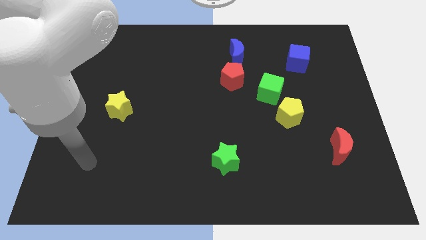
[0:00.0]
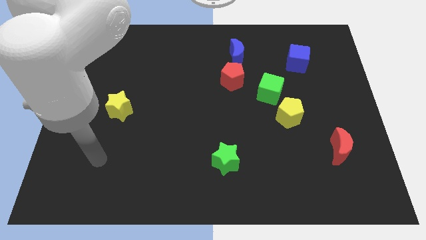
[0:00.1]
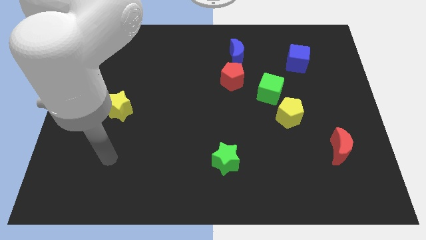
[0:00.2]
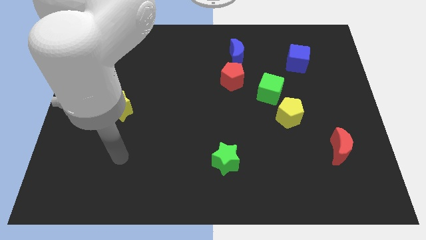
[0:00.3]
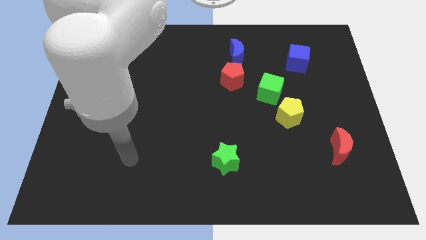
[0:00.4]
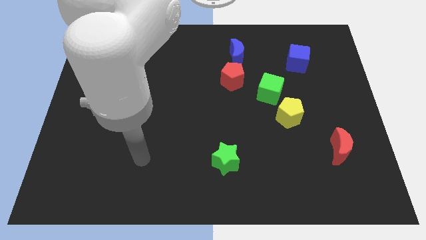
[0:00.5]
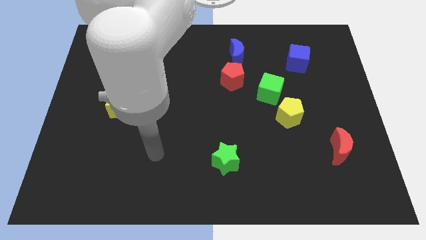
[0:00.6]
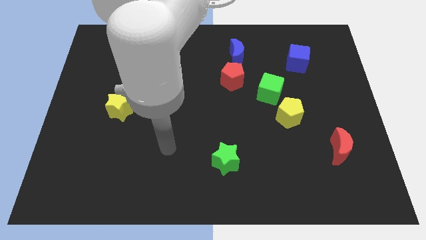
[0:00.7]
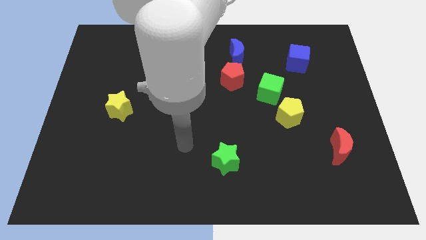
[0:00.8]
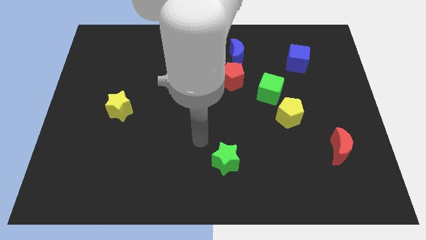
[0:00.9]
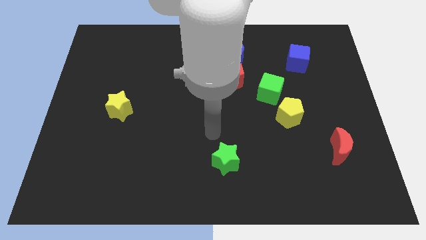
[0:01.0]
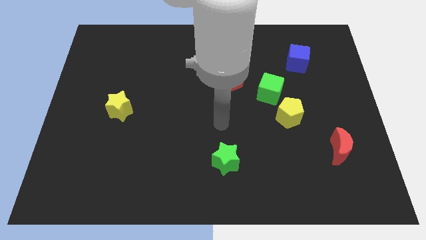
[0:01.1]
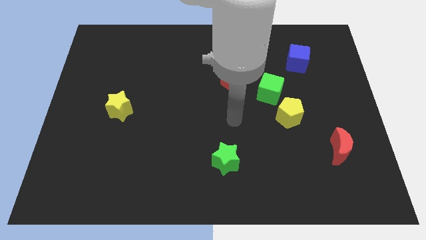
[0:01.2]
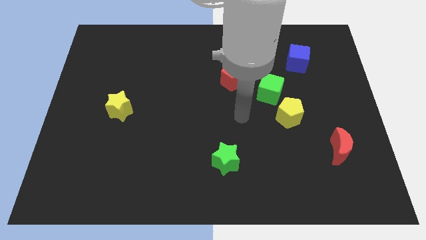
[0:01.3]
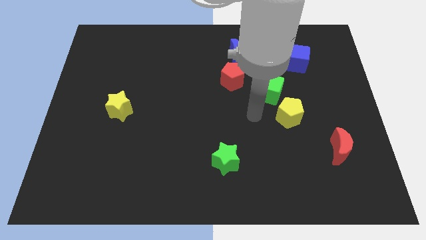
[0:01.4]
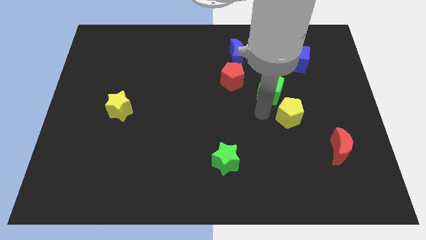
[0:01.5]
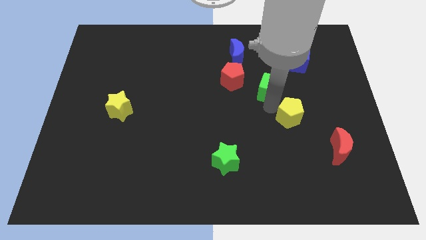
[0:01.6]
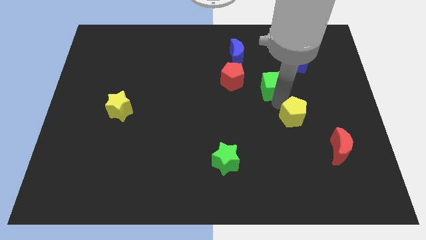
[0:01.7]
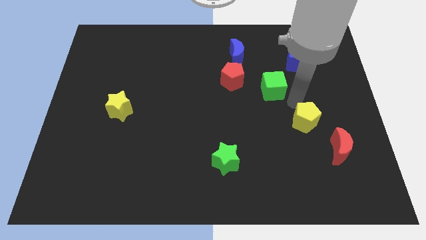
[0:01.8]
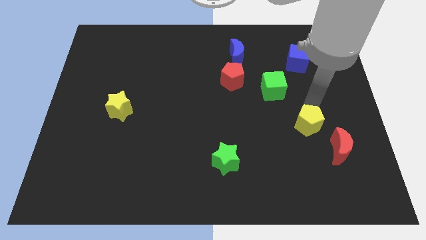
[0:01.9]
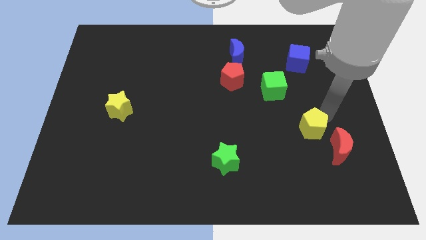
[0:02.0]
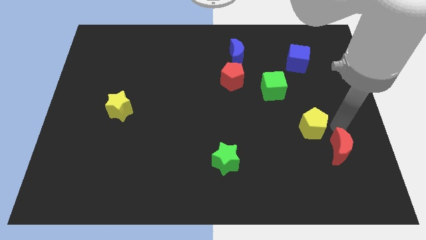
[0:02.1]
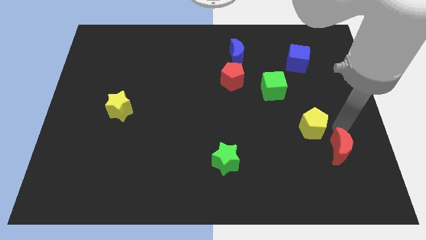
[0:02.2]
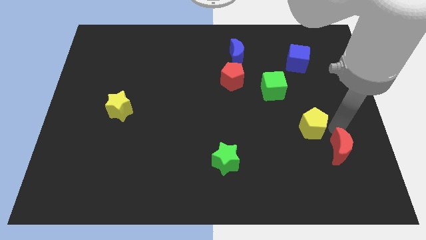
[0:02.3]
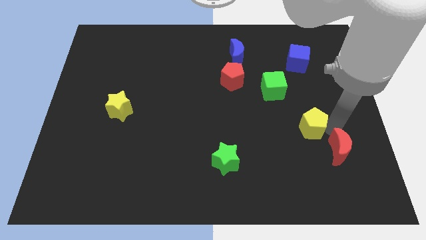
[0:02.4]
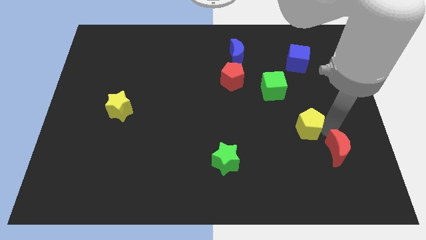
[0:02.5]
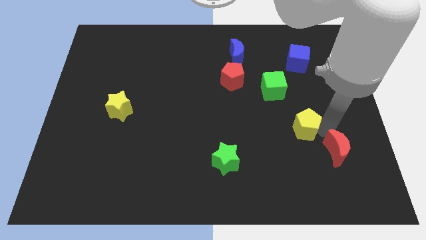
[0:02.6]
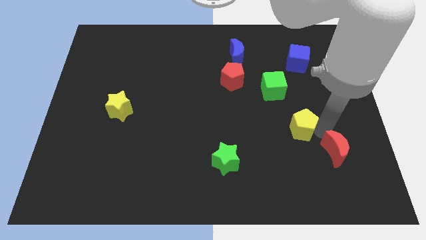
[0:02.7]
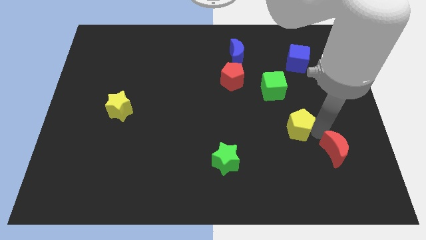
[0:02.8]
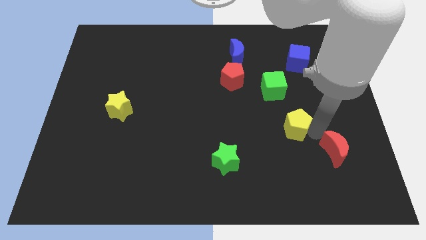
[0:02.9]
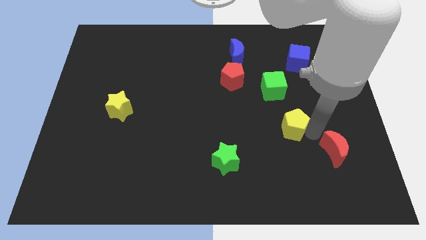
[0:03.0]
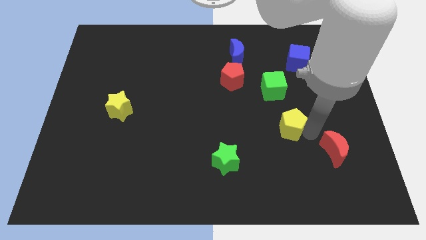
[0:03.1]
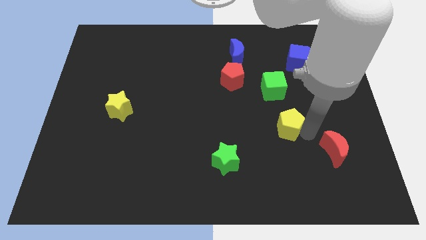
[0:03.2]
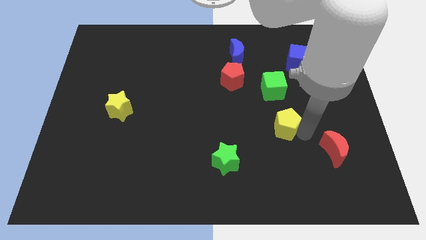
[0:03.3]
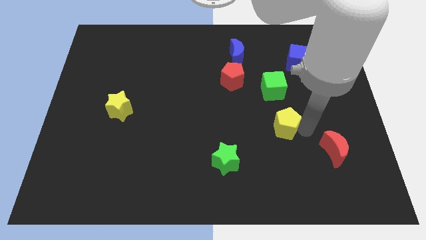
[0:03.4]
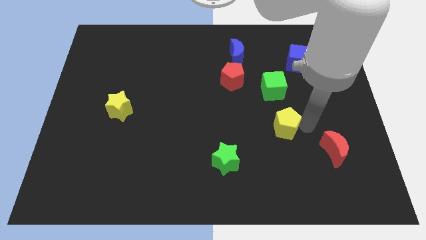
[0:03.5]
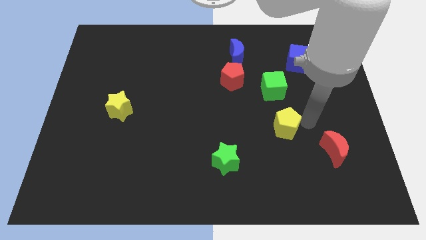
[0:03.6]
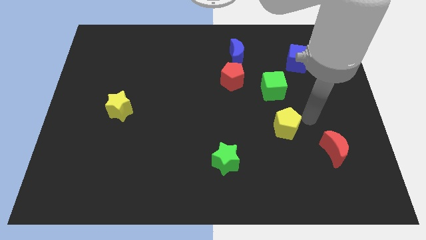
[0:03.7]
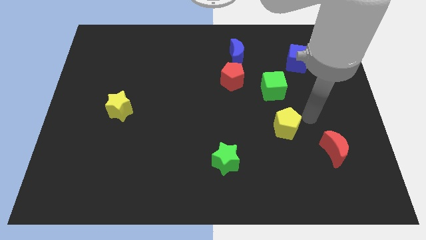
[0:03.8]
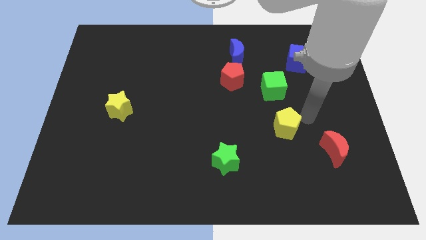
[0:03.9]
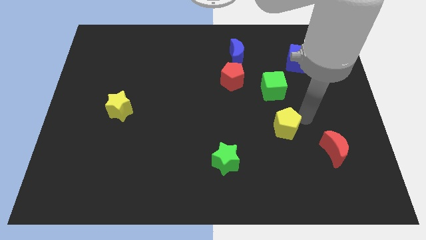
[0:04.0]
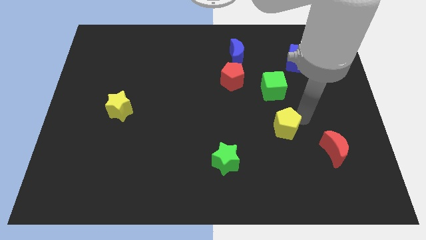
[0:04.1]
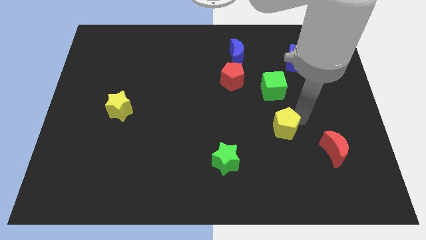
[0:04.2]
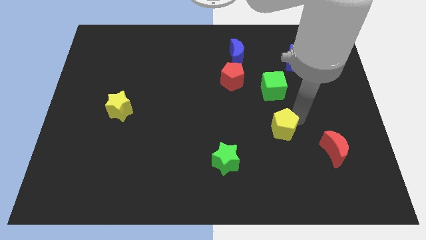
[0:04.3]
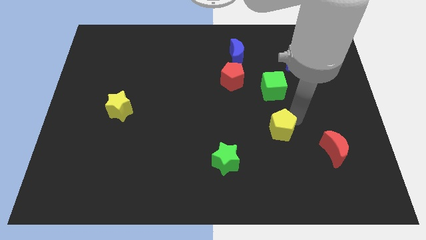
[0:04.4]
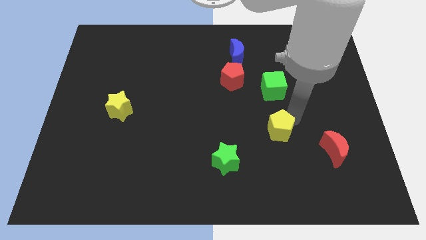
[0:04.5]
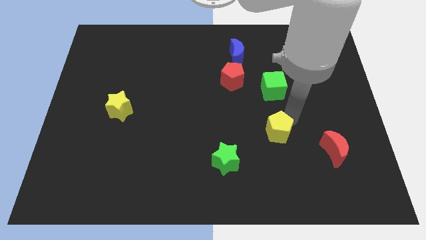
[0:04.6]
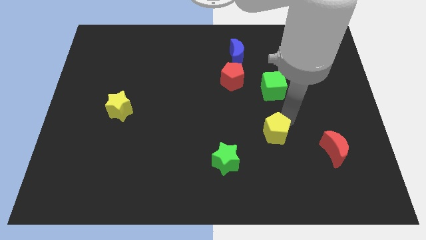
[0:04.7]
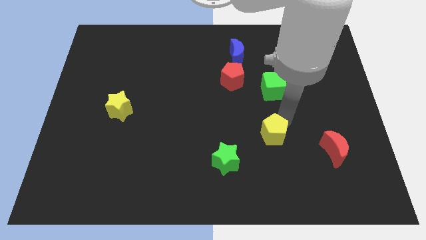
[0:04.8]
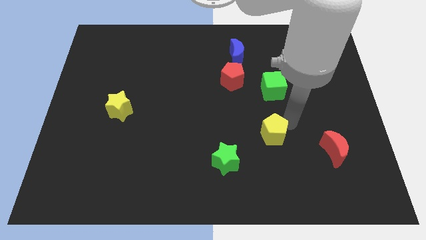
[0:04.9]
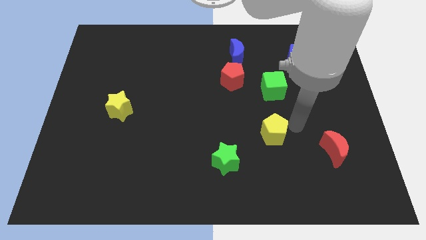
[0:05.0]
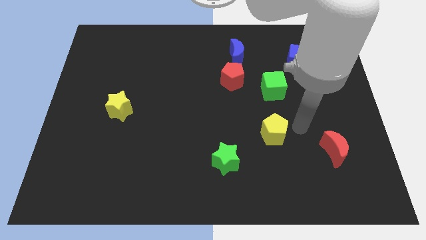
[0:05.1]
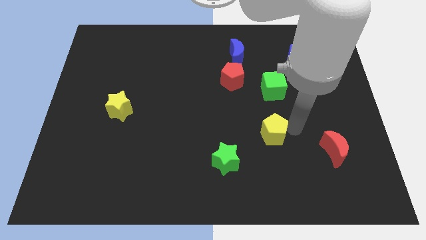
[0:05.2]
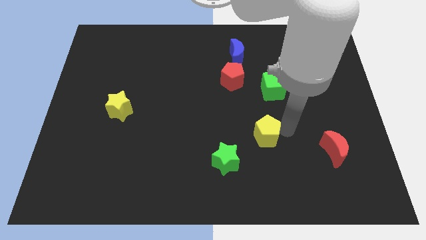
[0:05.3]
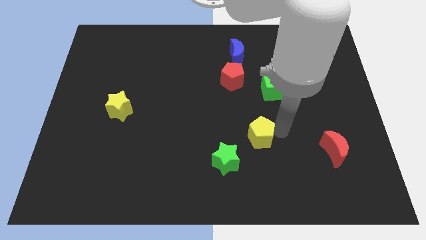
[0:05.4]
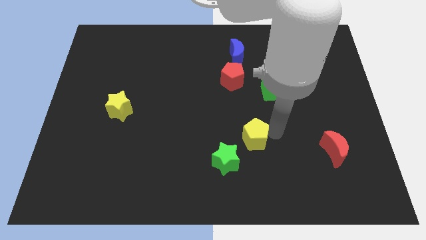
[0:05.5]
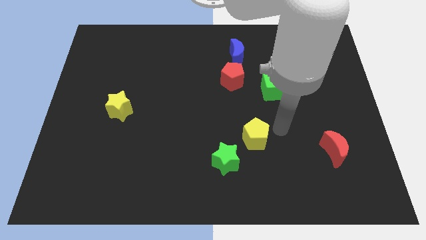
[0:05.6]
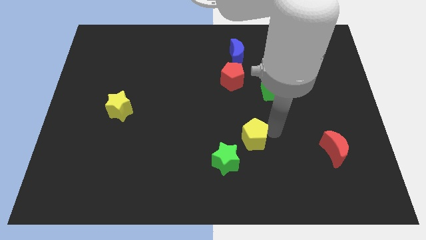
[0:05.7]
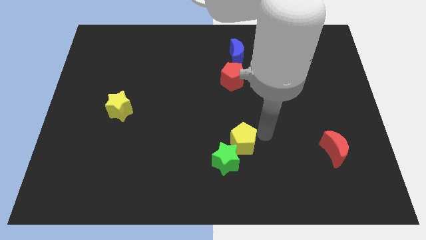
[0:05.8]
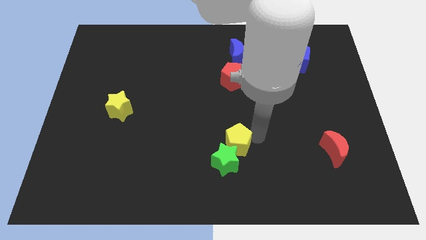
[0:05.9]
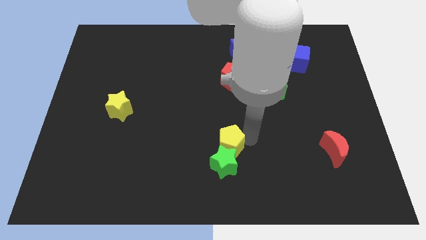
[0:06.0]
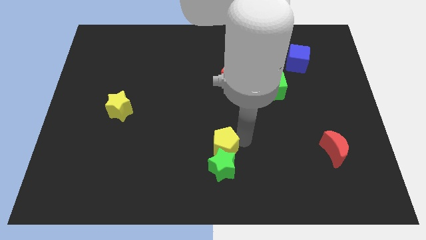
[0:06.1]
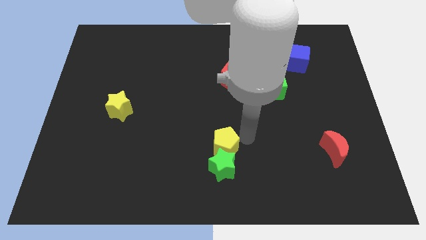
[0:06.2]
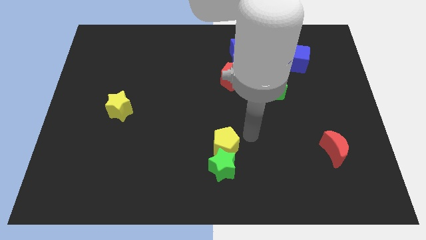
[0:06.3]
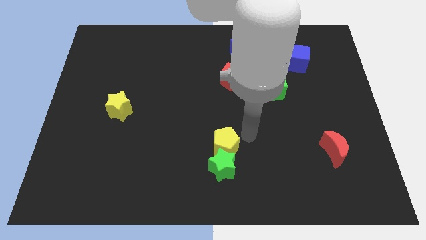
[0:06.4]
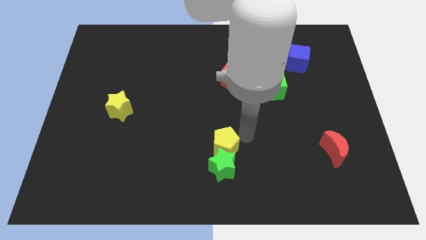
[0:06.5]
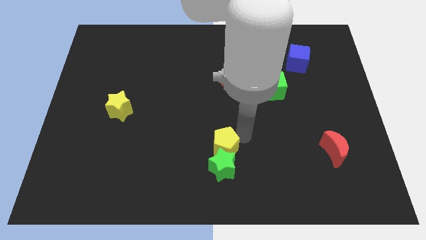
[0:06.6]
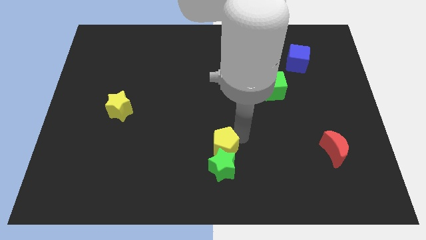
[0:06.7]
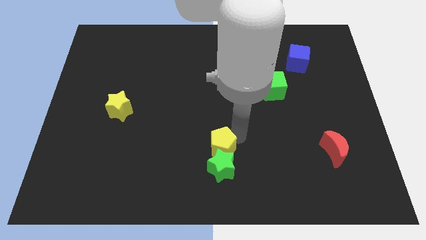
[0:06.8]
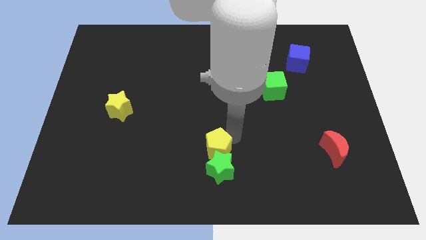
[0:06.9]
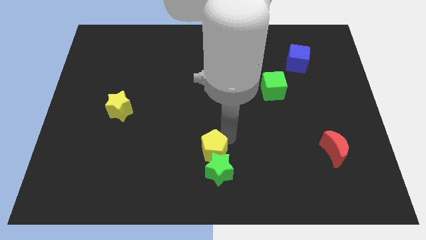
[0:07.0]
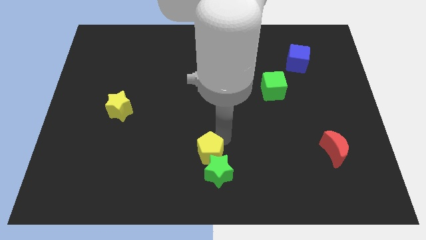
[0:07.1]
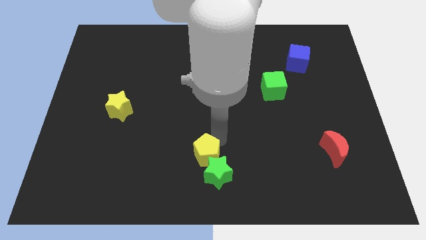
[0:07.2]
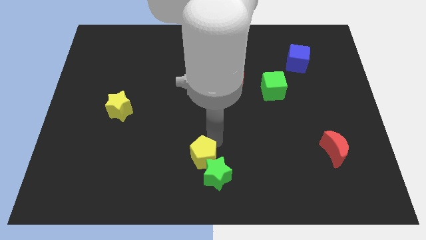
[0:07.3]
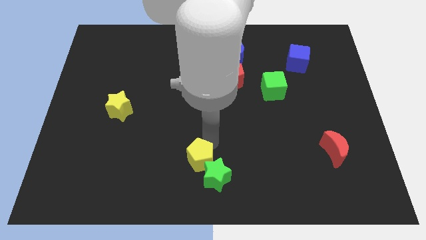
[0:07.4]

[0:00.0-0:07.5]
move the yellow pentagon just left of the green star
